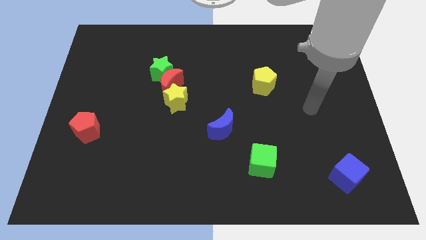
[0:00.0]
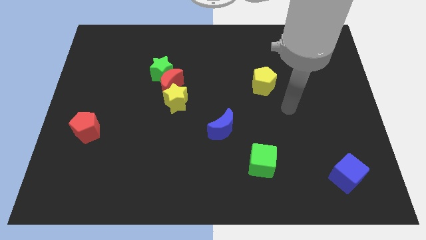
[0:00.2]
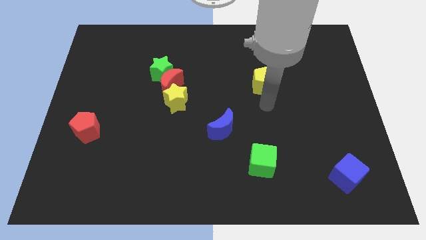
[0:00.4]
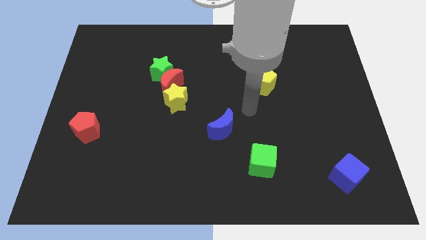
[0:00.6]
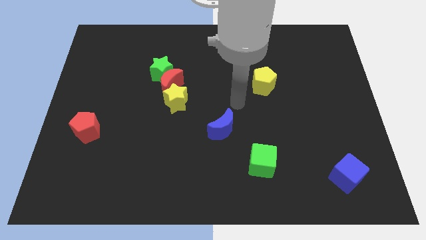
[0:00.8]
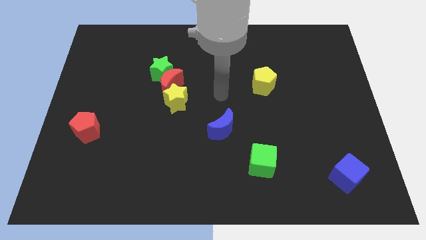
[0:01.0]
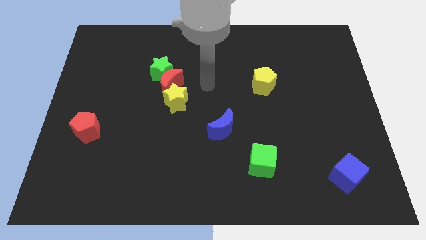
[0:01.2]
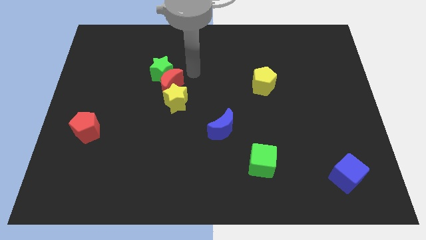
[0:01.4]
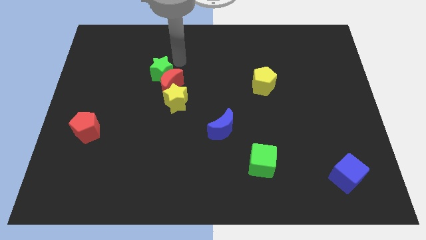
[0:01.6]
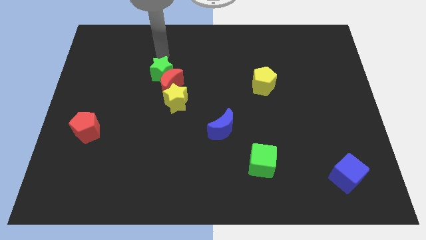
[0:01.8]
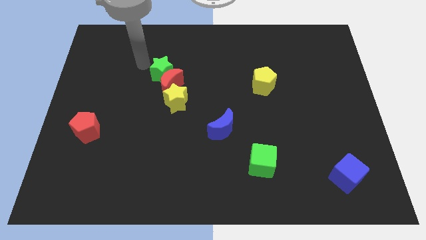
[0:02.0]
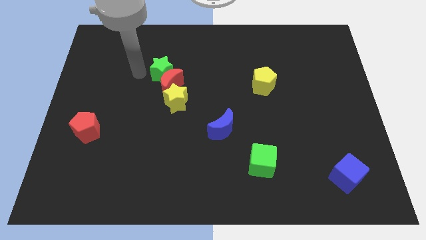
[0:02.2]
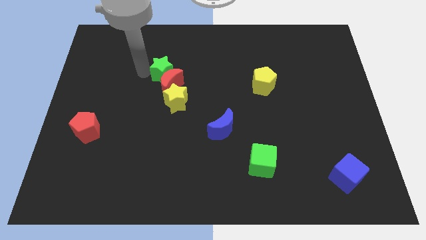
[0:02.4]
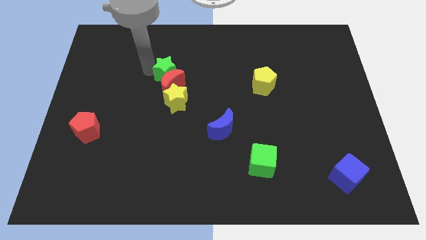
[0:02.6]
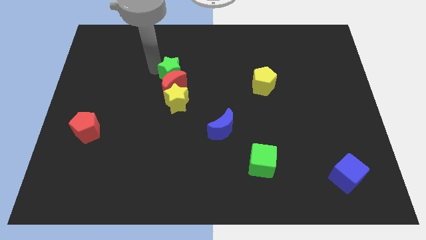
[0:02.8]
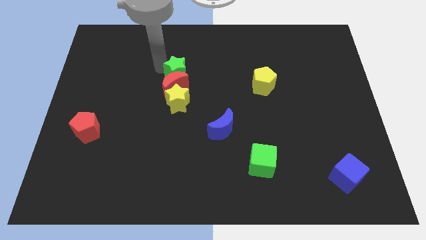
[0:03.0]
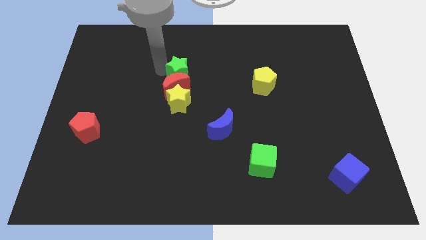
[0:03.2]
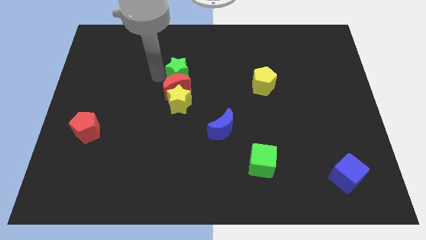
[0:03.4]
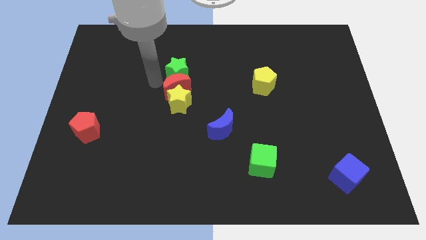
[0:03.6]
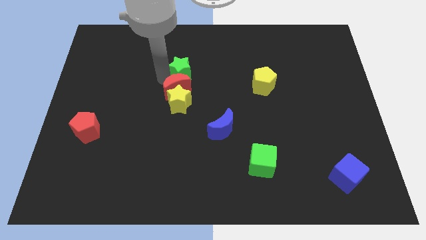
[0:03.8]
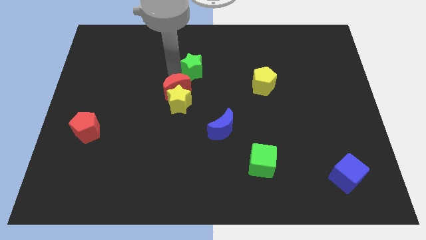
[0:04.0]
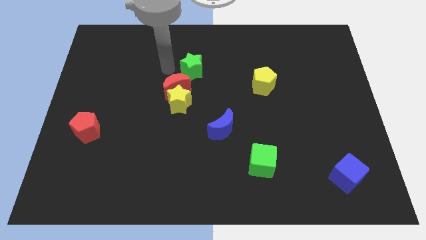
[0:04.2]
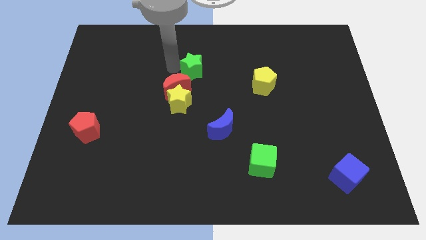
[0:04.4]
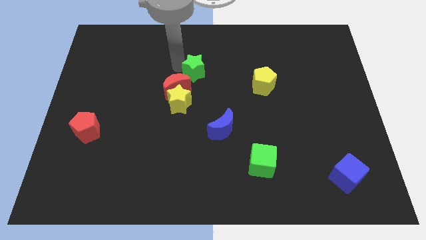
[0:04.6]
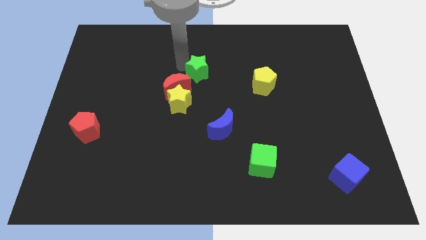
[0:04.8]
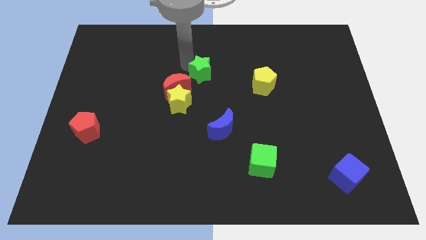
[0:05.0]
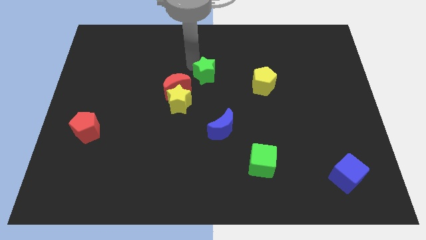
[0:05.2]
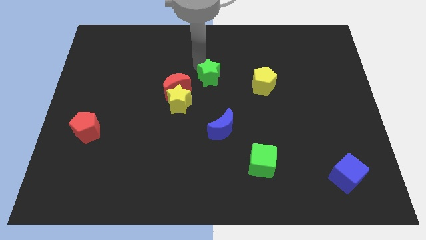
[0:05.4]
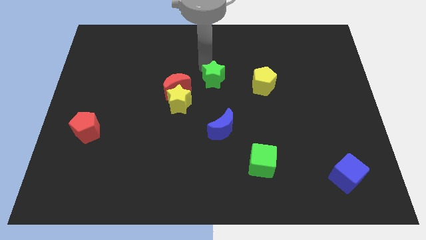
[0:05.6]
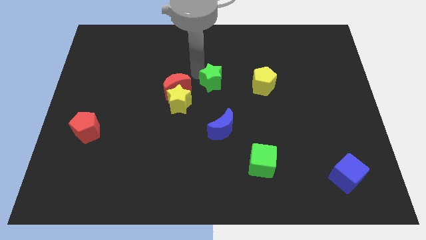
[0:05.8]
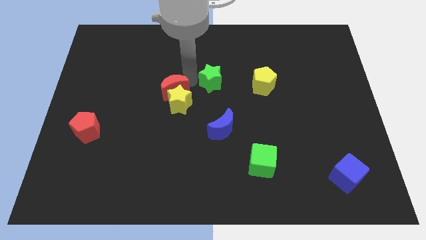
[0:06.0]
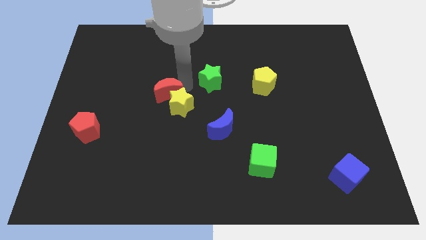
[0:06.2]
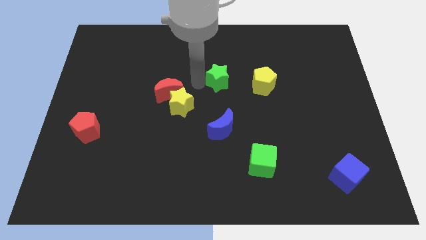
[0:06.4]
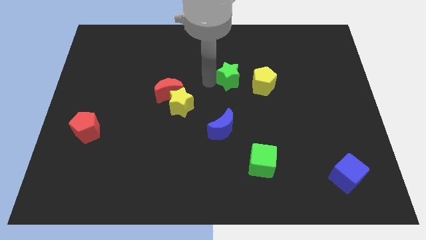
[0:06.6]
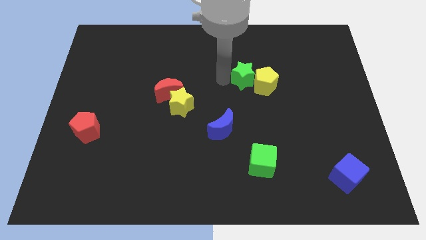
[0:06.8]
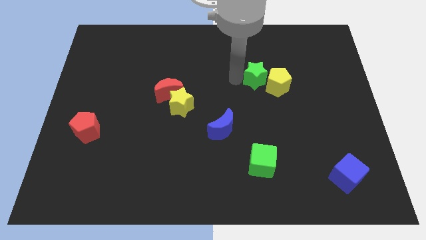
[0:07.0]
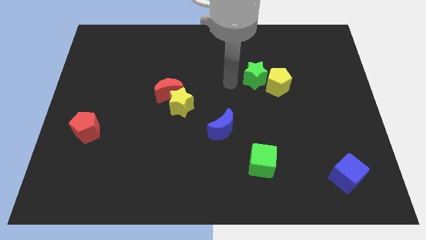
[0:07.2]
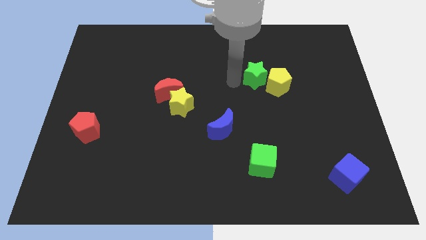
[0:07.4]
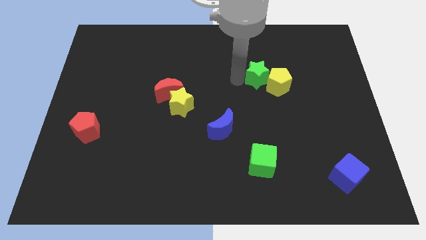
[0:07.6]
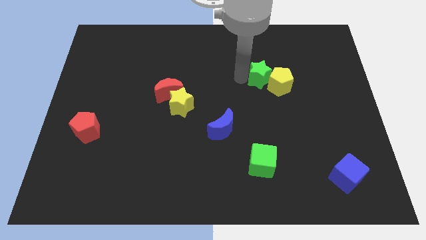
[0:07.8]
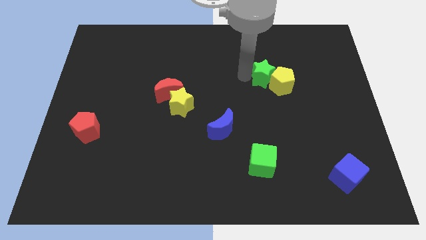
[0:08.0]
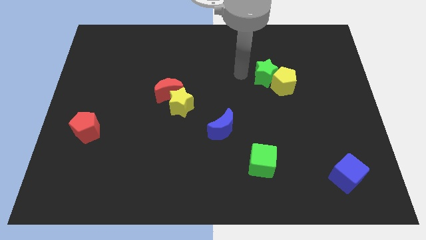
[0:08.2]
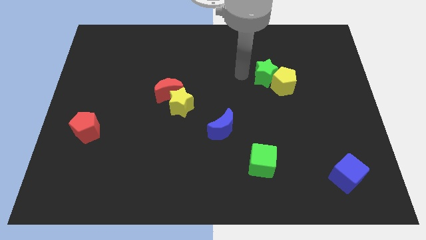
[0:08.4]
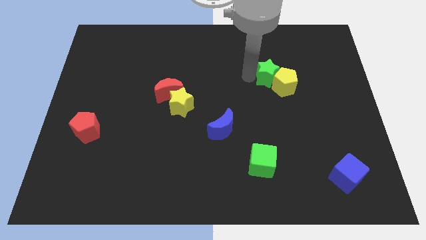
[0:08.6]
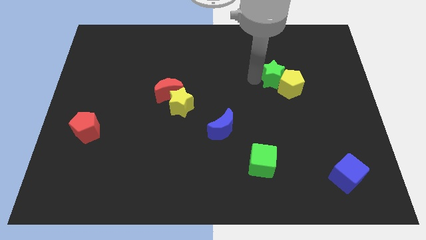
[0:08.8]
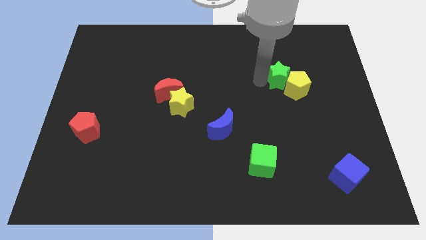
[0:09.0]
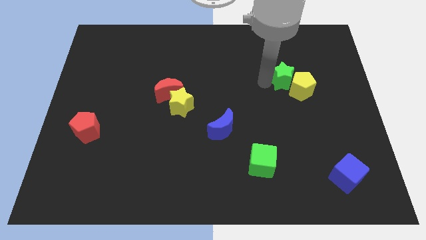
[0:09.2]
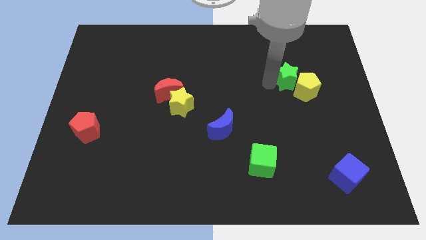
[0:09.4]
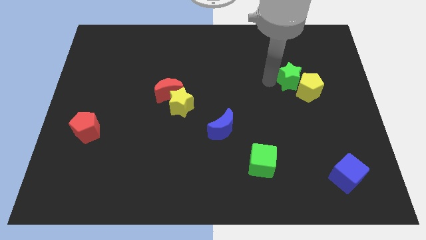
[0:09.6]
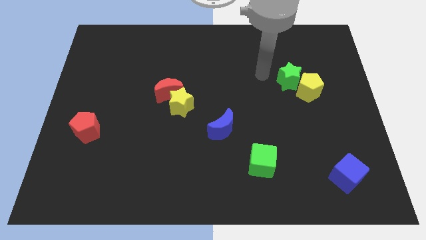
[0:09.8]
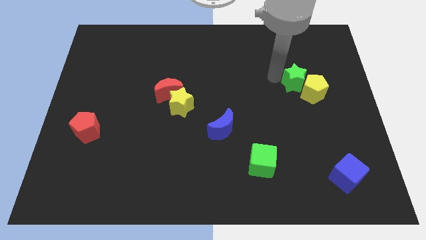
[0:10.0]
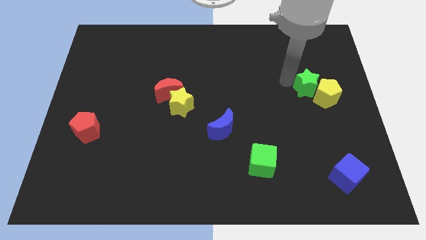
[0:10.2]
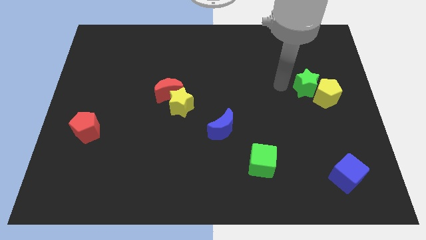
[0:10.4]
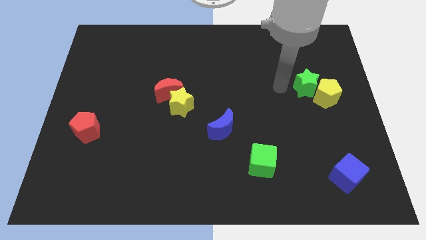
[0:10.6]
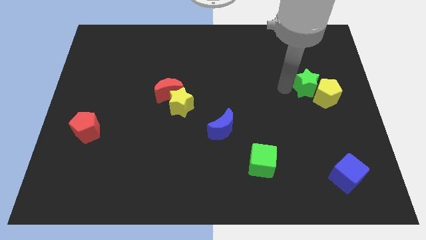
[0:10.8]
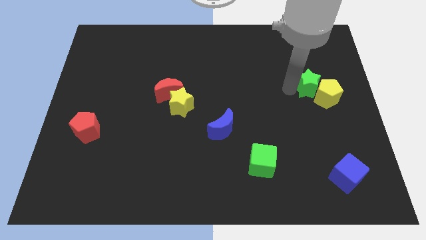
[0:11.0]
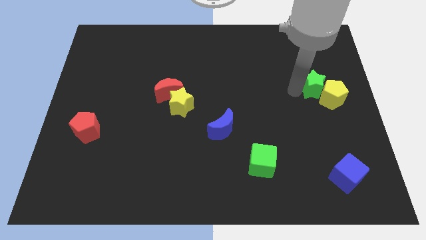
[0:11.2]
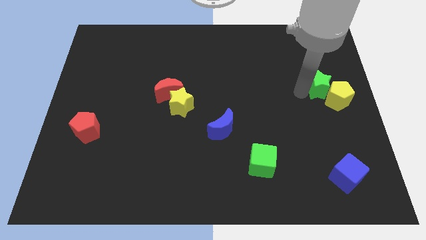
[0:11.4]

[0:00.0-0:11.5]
put the green star to the right side of the board

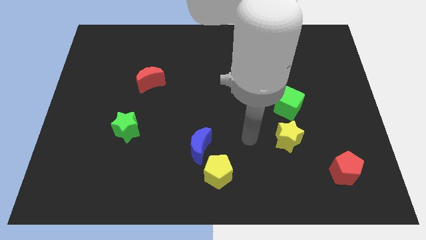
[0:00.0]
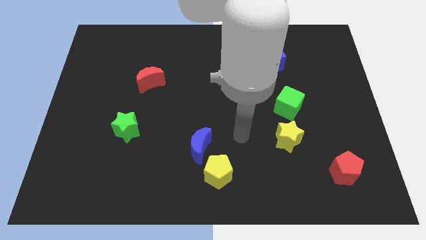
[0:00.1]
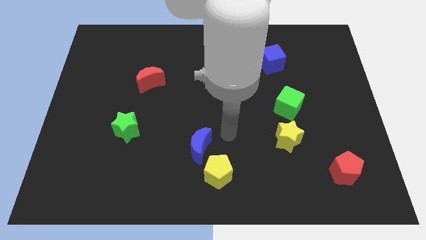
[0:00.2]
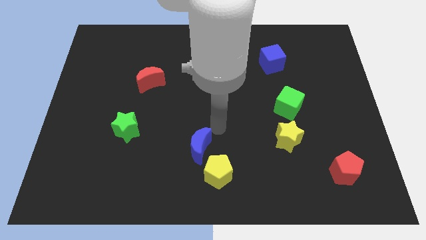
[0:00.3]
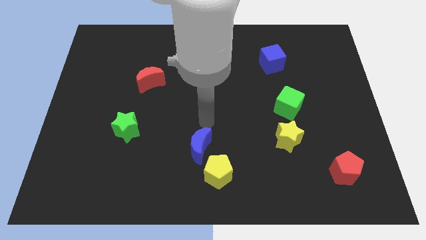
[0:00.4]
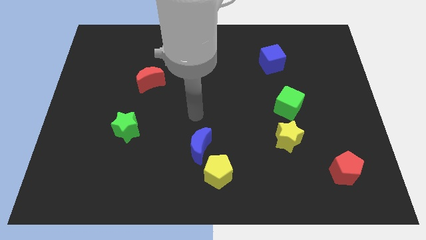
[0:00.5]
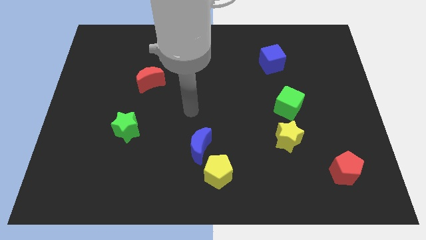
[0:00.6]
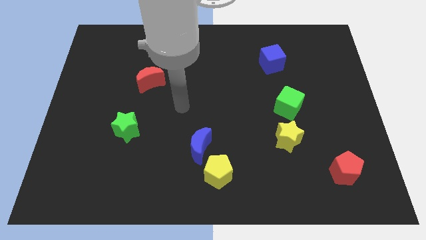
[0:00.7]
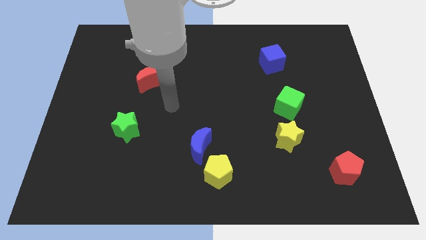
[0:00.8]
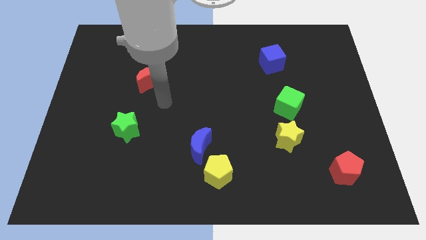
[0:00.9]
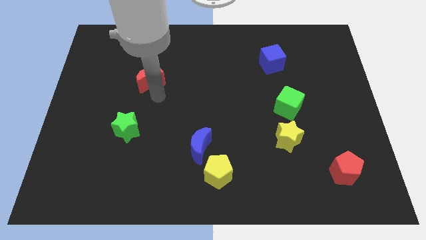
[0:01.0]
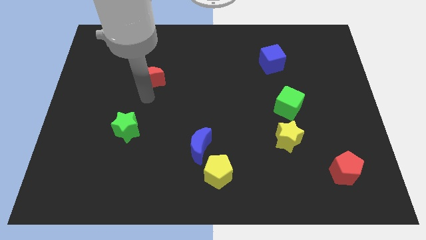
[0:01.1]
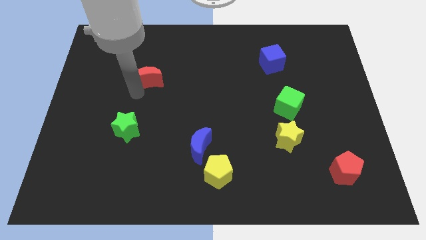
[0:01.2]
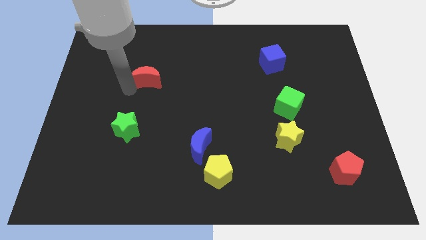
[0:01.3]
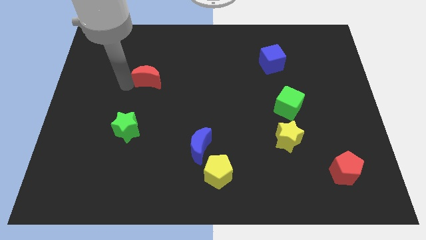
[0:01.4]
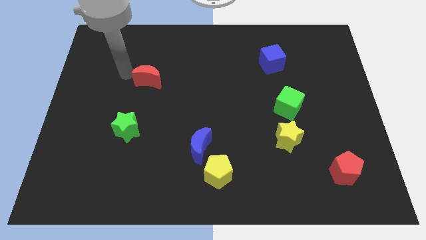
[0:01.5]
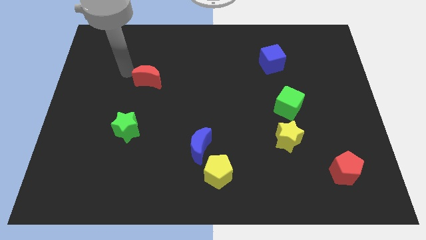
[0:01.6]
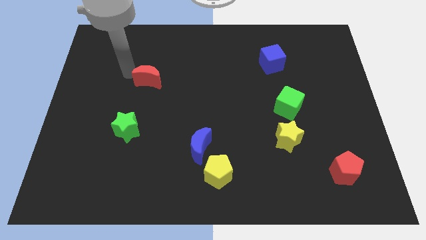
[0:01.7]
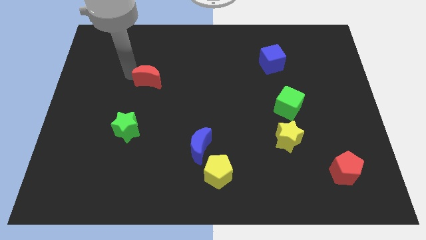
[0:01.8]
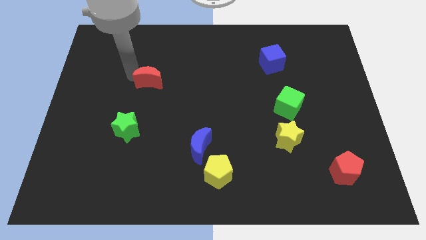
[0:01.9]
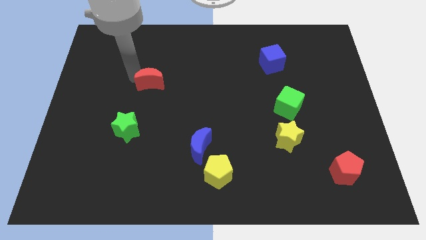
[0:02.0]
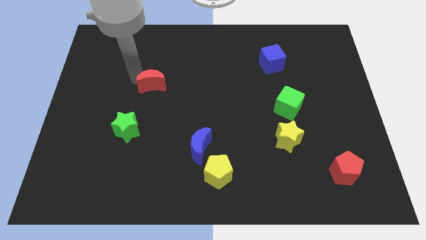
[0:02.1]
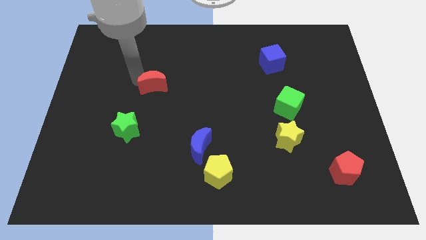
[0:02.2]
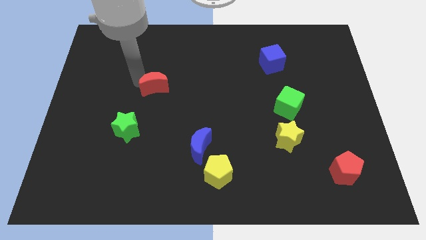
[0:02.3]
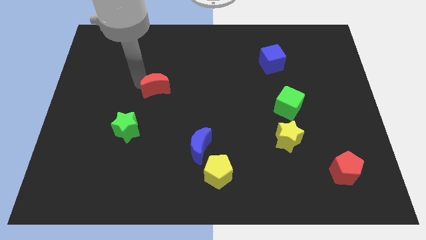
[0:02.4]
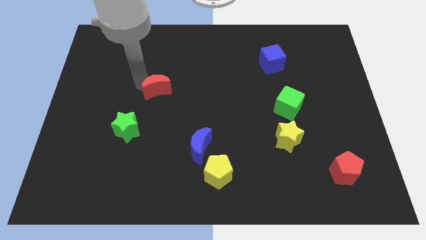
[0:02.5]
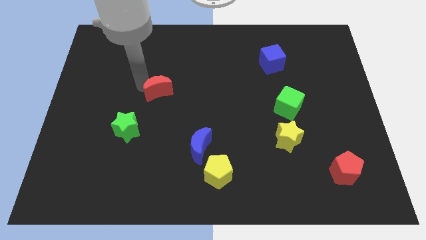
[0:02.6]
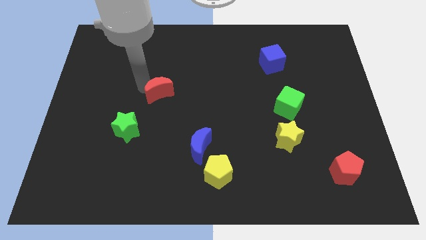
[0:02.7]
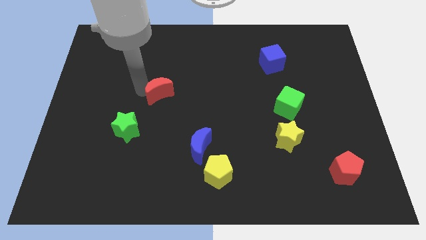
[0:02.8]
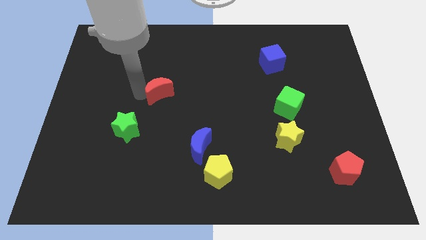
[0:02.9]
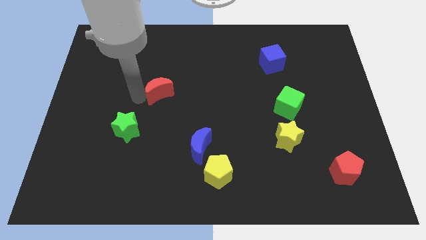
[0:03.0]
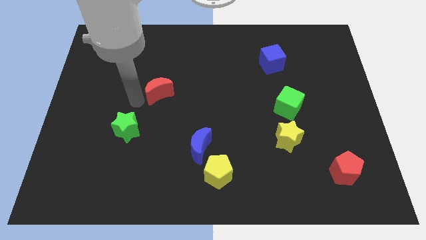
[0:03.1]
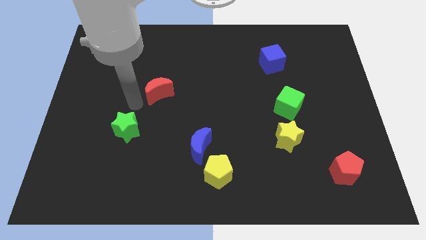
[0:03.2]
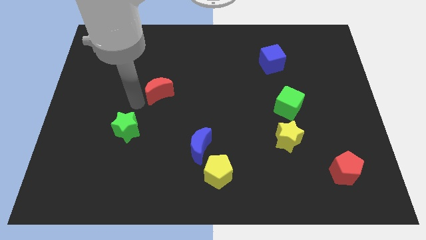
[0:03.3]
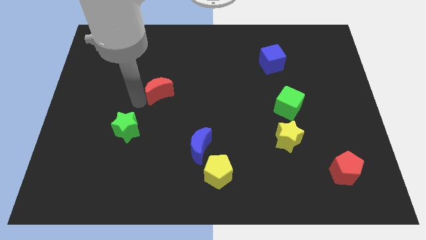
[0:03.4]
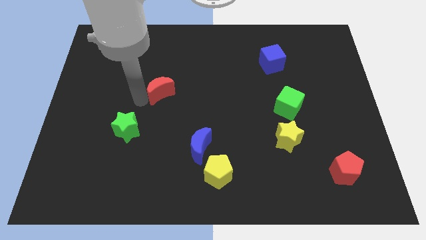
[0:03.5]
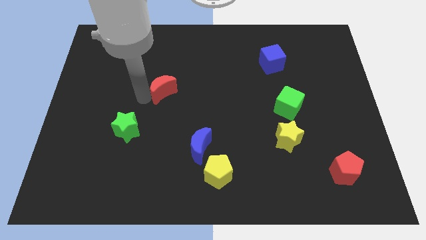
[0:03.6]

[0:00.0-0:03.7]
move the red moon to the middle
